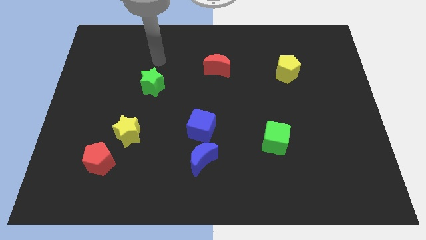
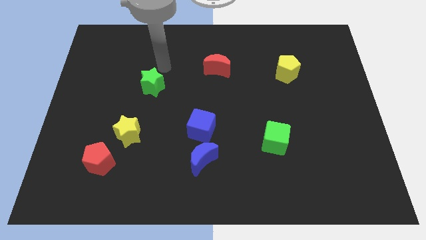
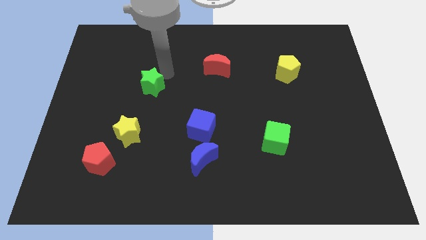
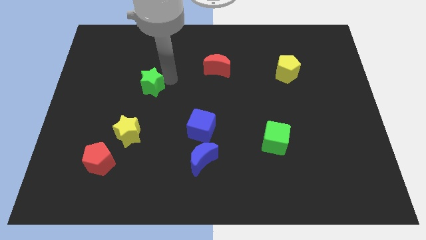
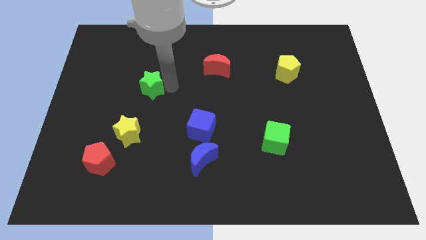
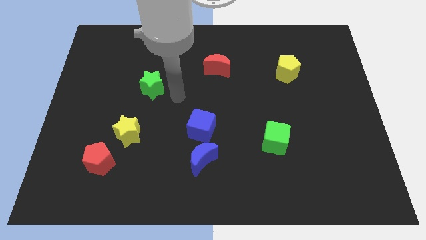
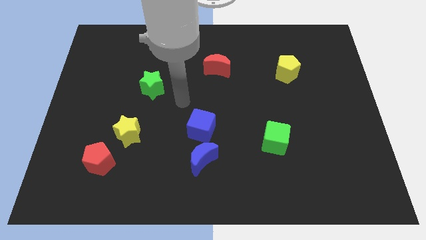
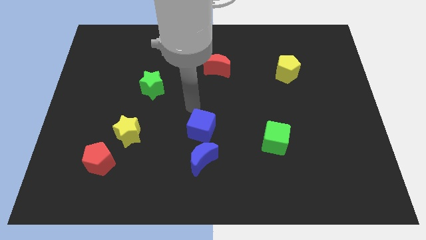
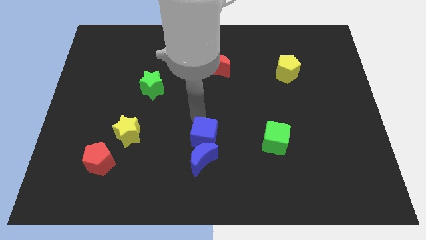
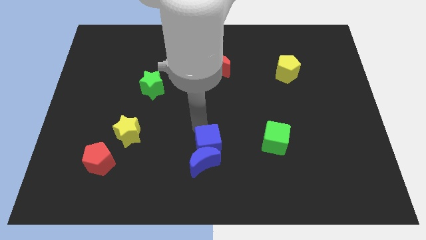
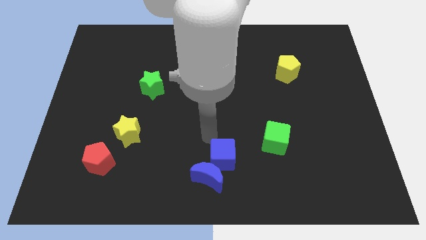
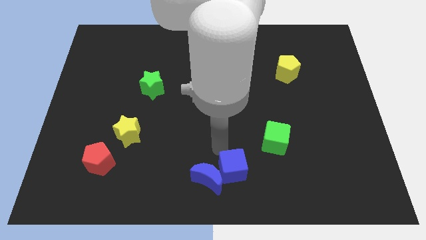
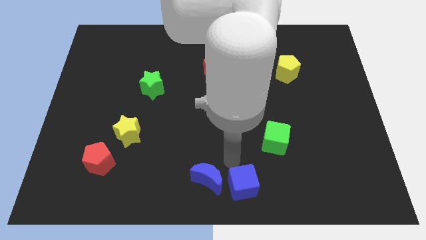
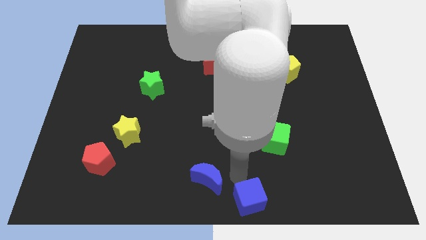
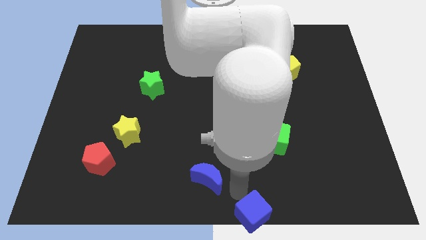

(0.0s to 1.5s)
move the blue moon away from the blue cube

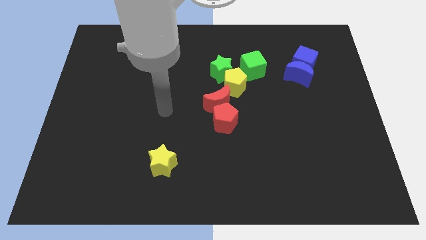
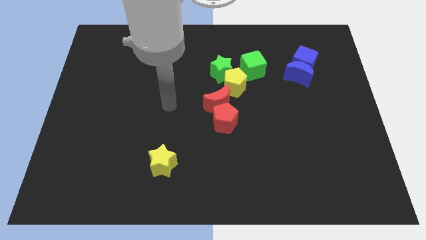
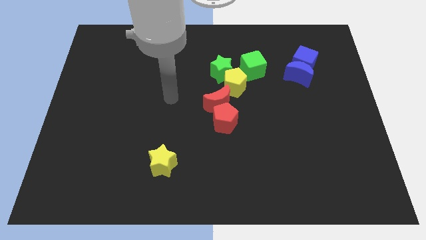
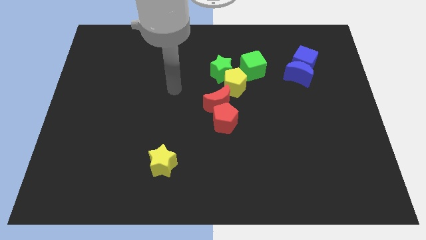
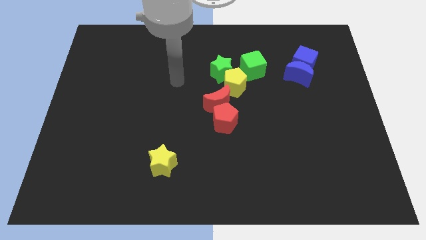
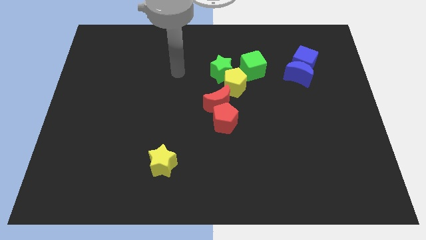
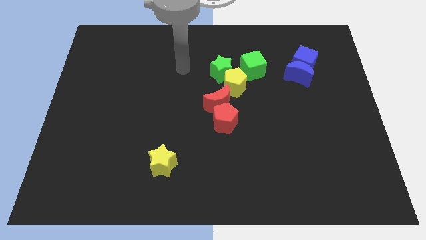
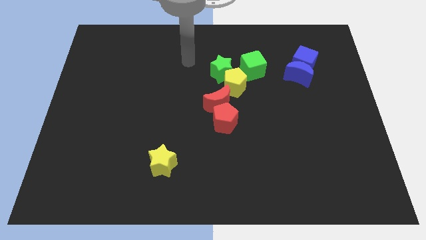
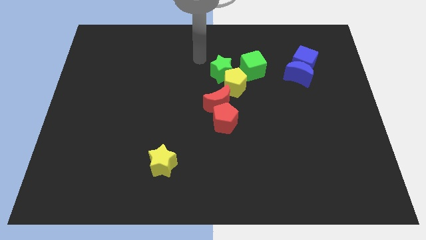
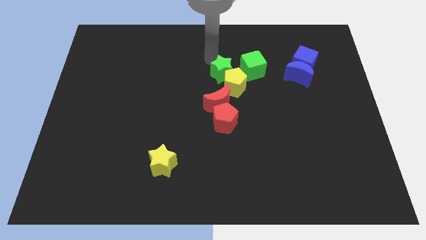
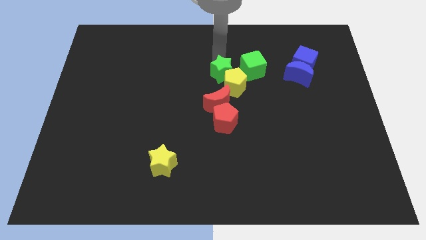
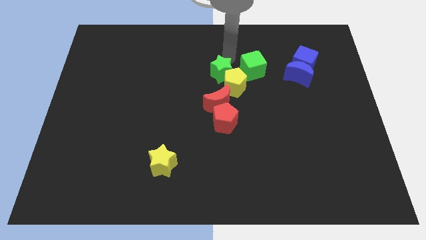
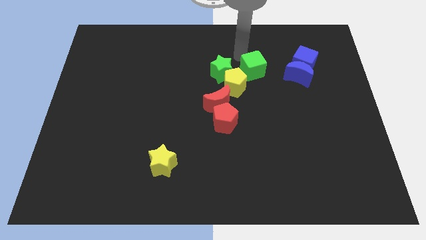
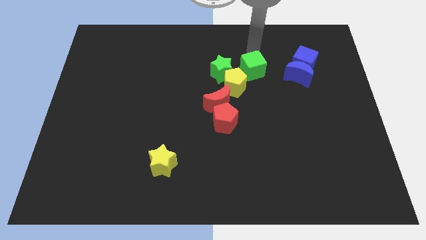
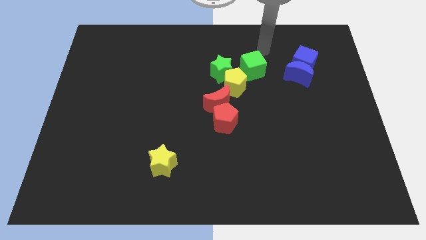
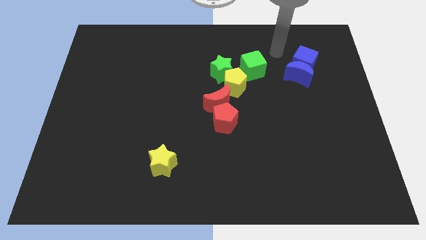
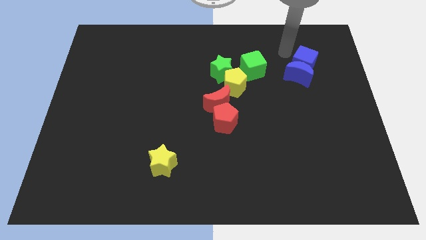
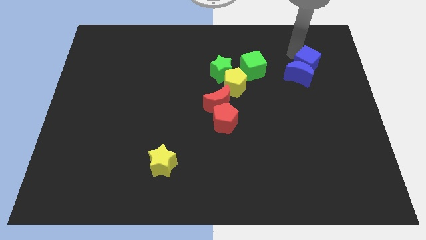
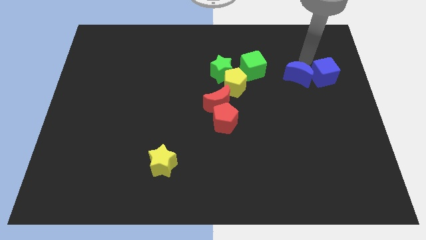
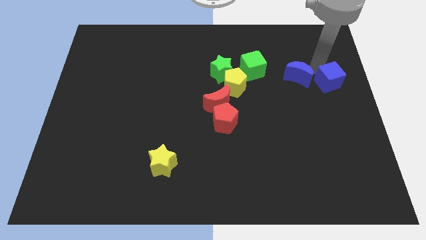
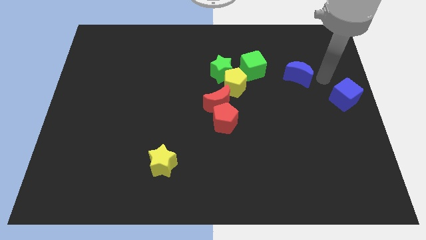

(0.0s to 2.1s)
pull the blue moon apart from the blue cube

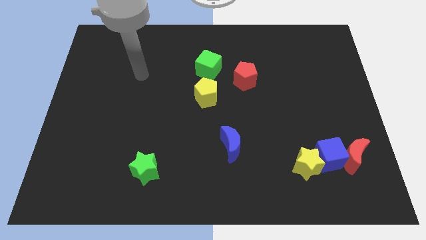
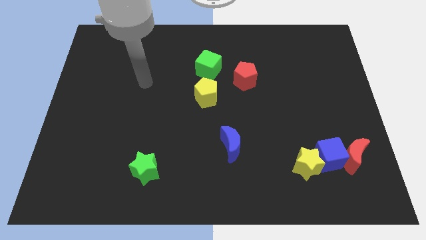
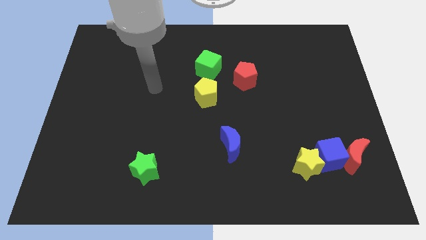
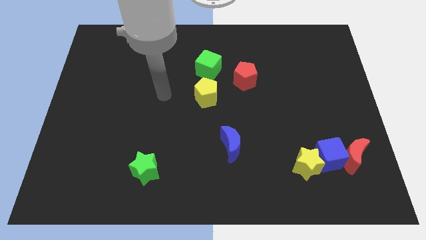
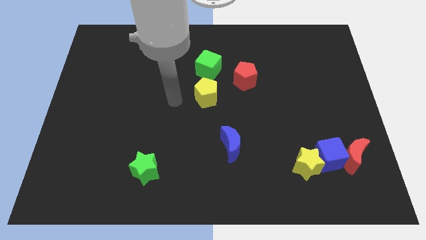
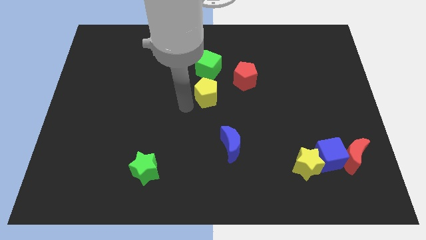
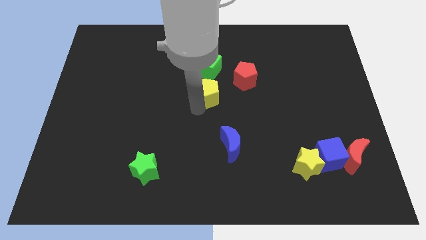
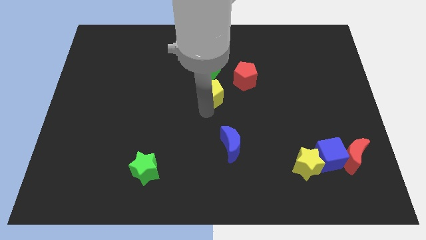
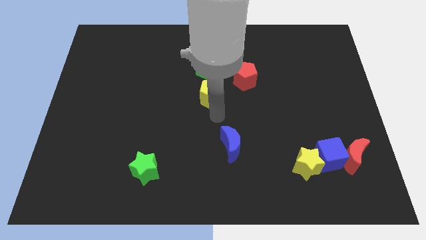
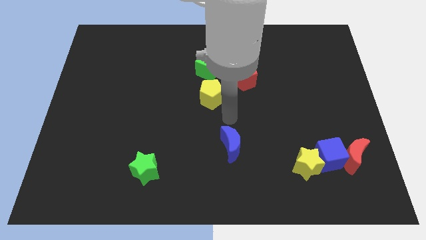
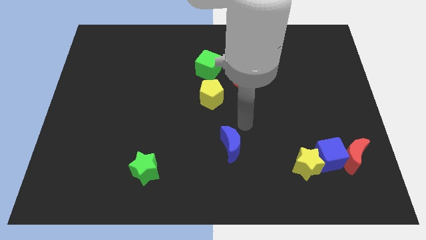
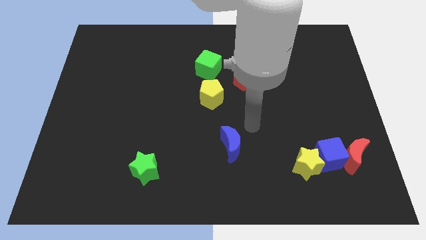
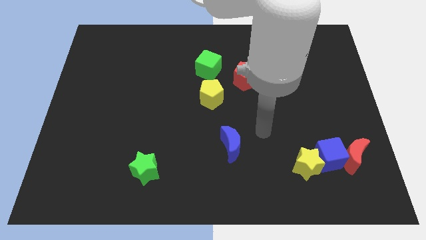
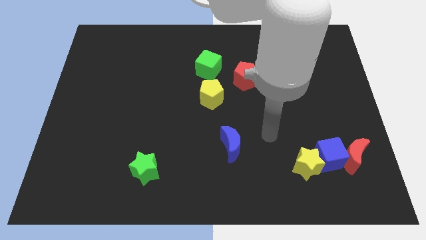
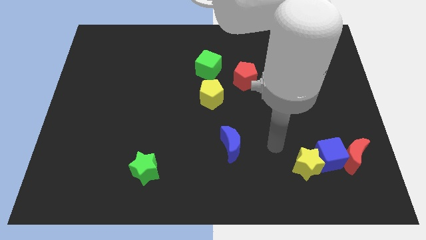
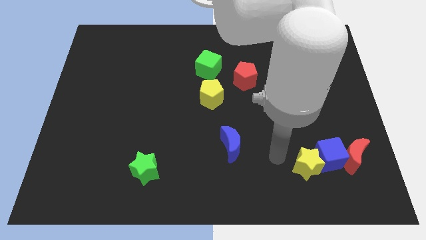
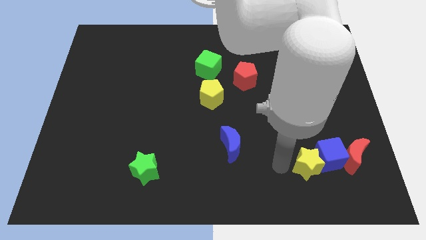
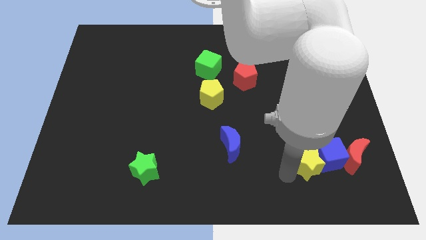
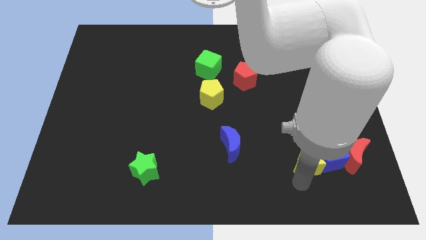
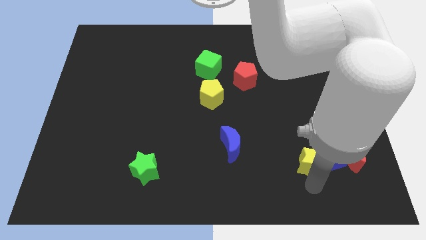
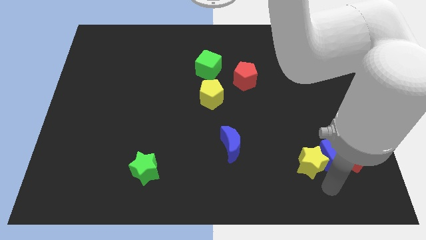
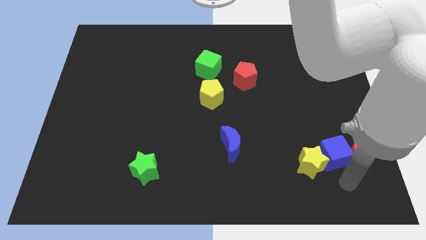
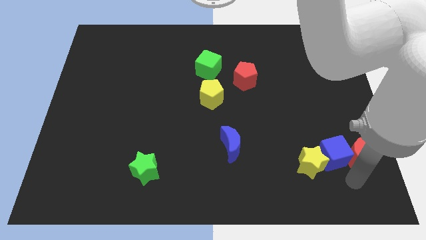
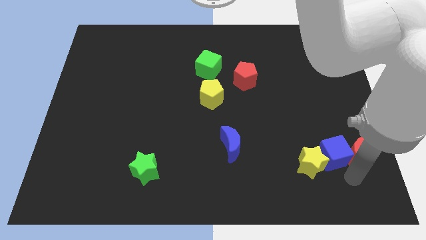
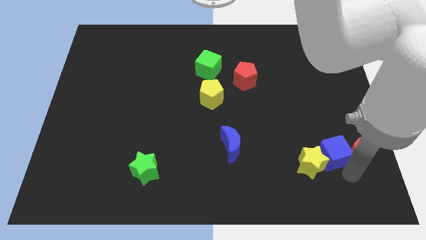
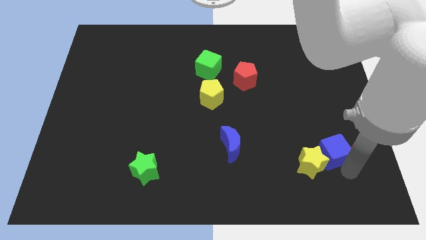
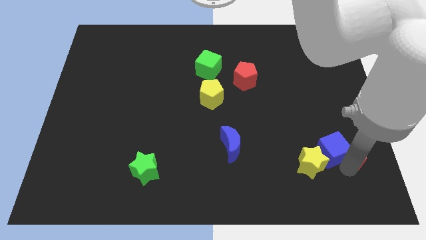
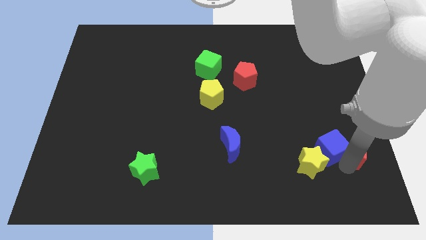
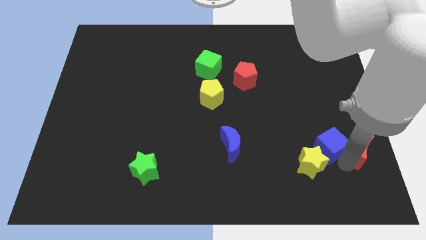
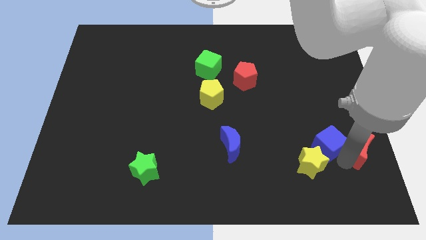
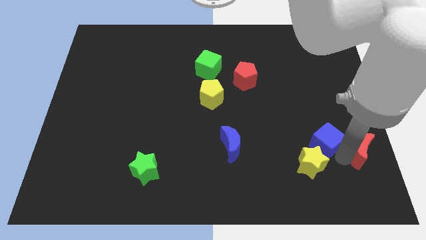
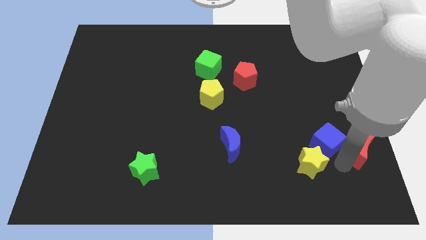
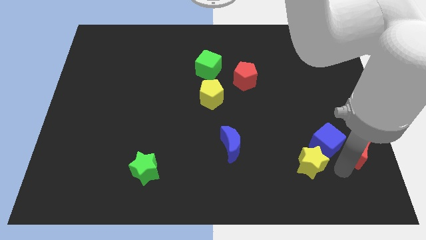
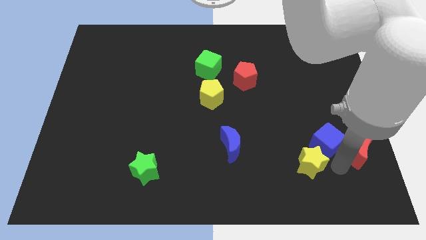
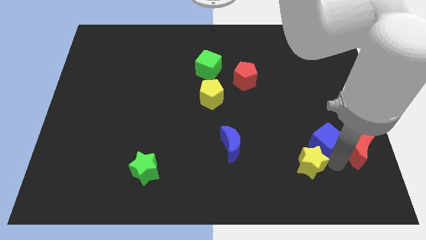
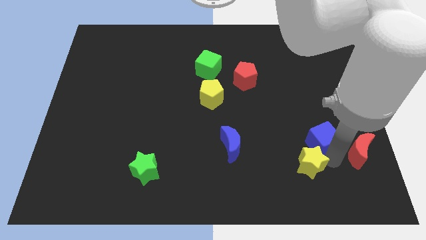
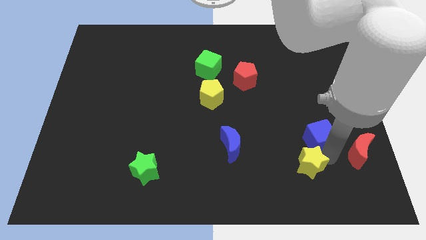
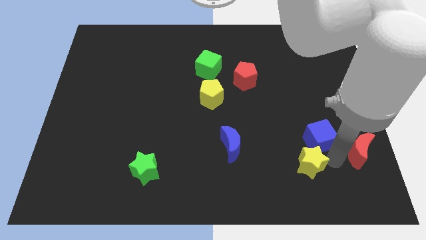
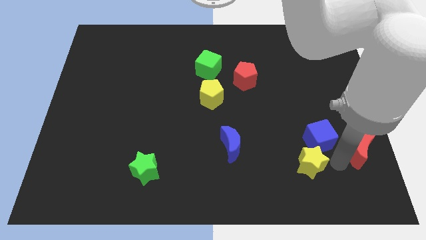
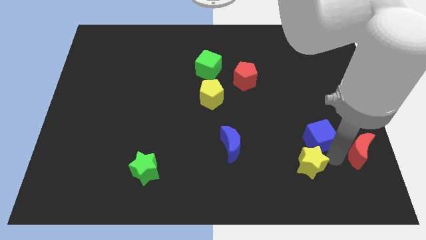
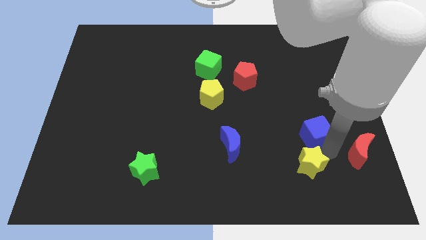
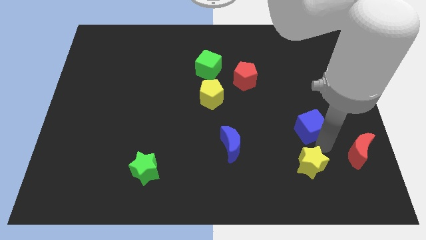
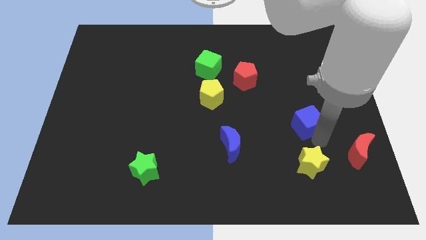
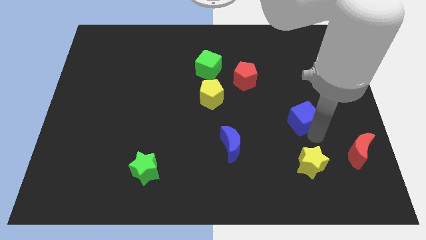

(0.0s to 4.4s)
move the blue cube away from the red moon and yellow star

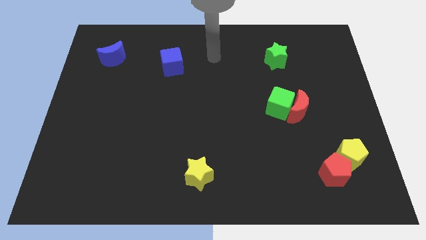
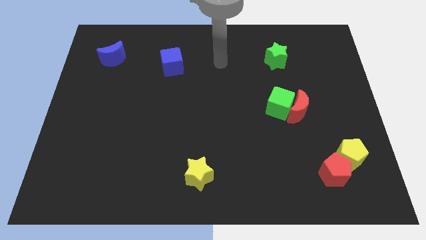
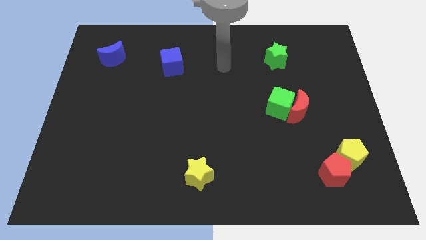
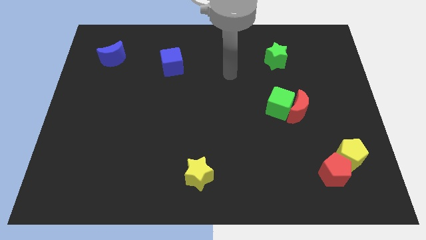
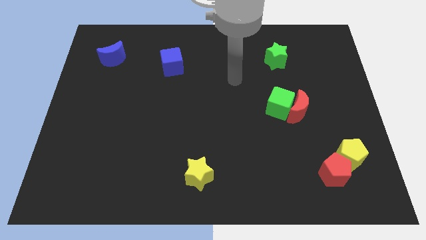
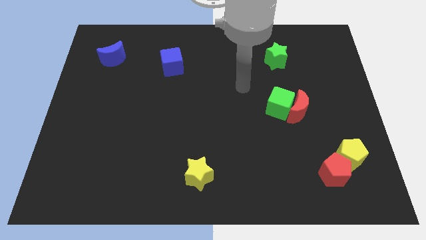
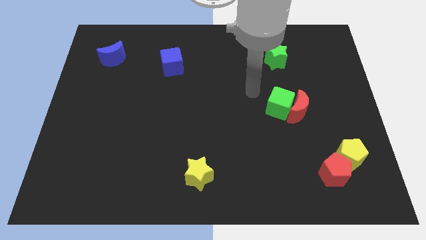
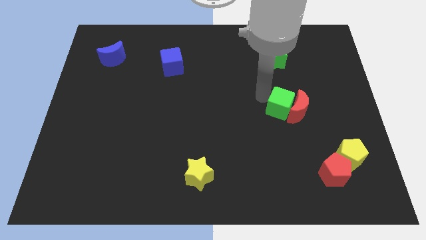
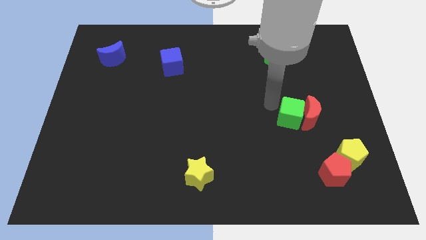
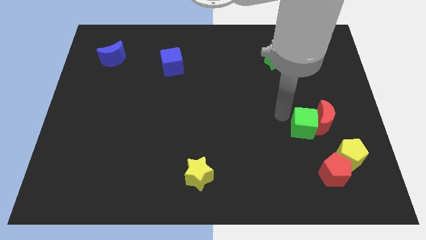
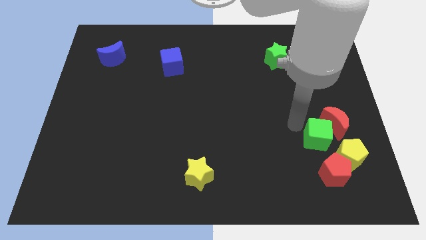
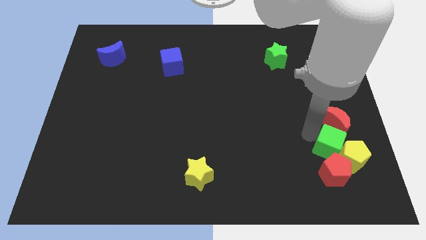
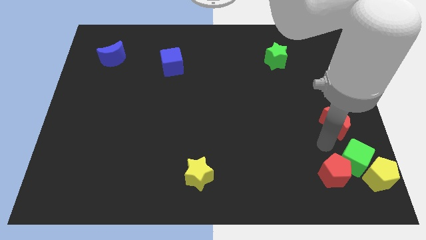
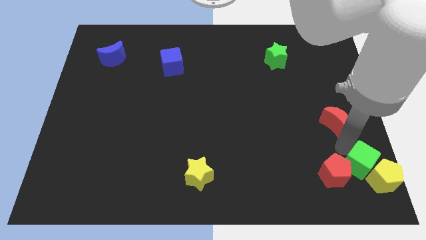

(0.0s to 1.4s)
move the red moon away from the green cube
